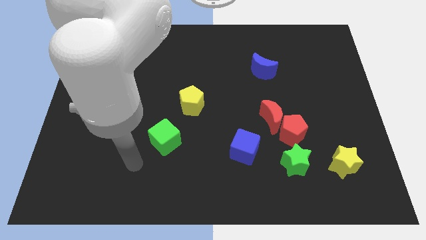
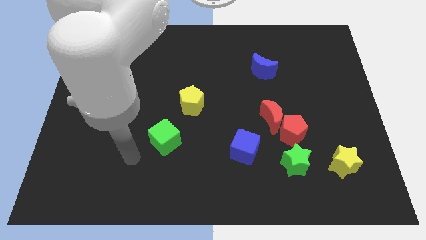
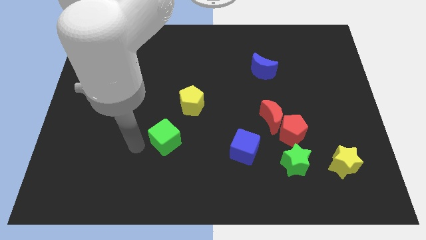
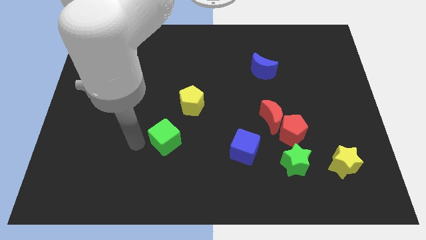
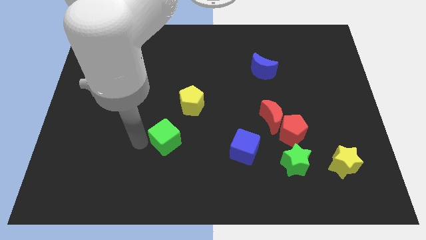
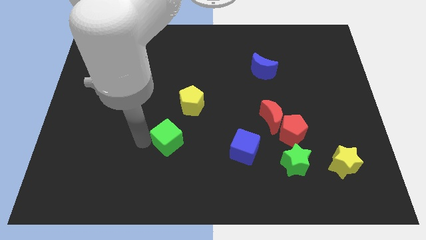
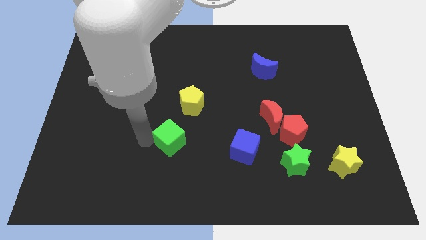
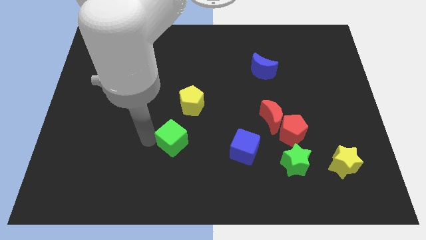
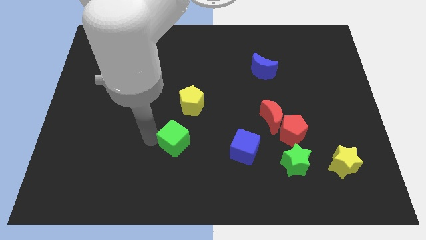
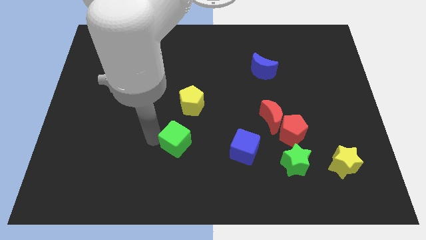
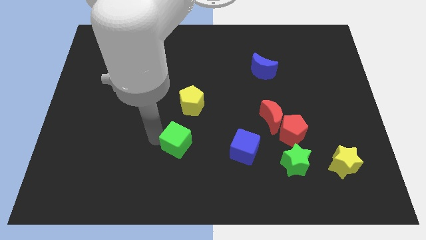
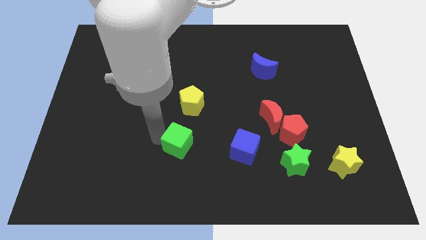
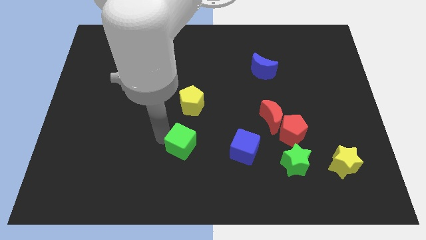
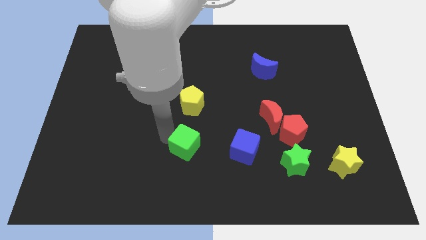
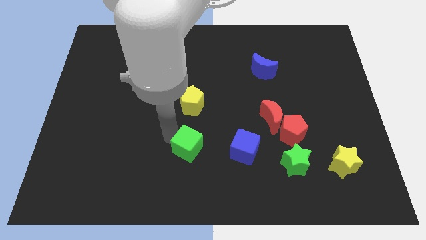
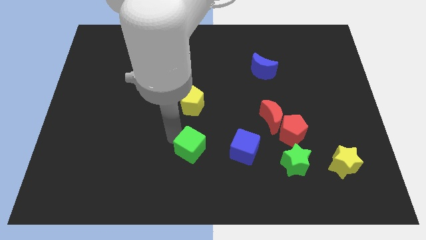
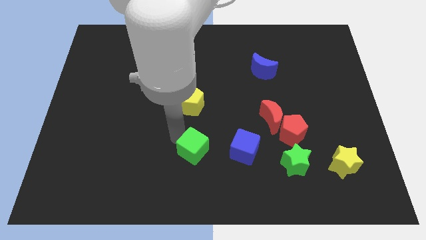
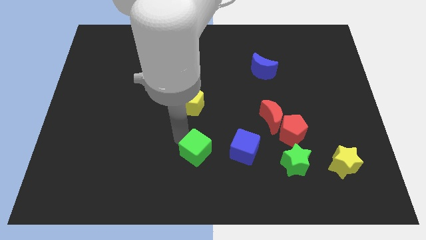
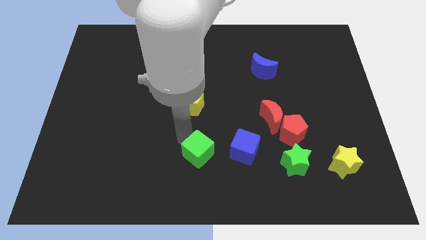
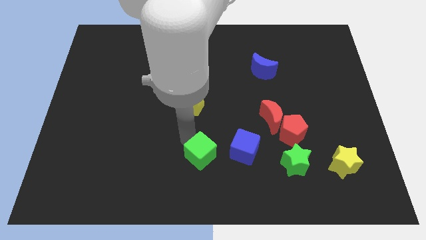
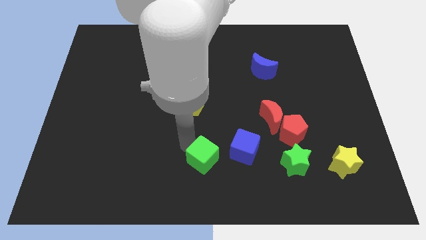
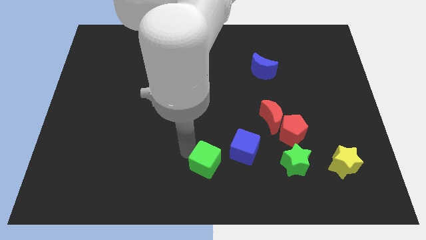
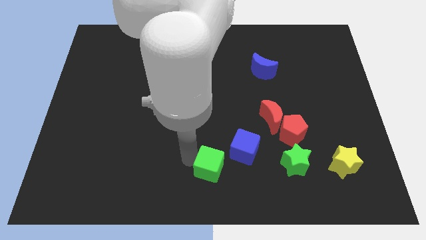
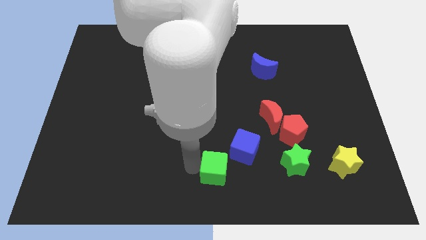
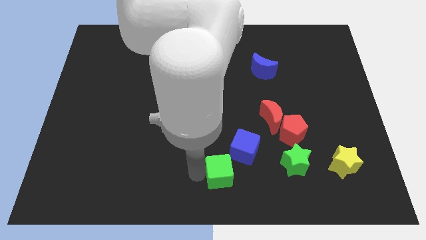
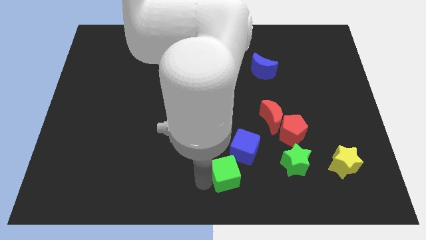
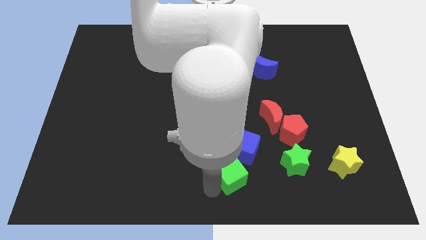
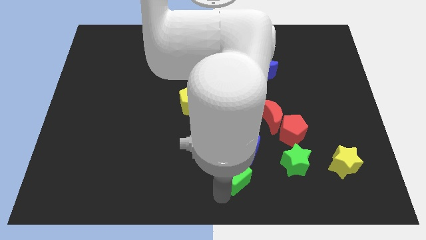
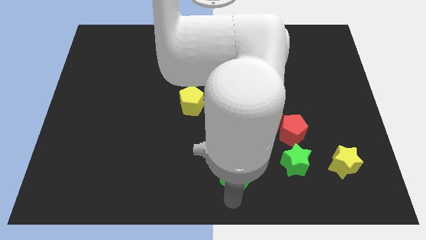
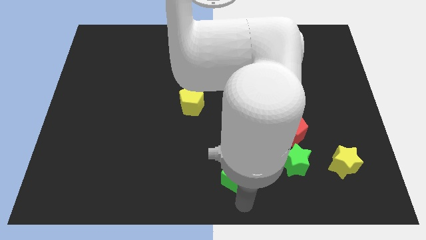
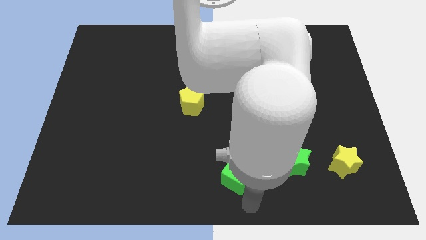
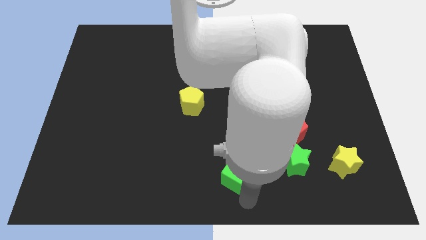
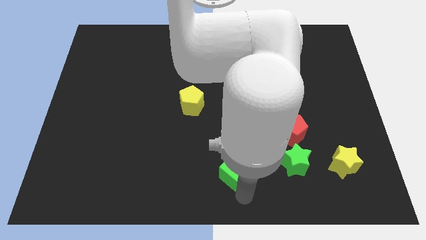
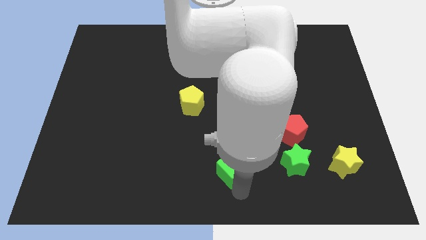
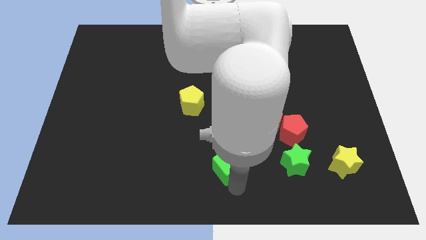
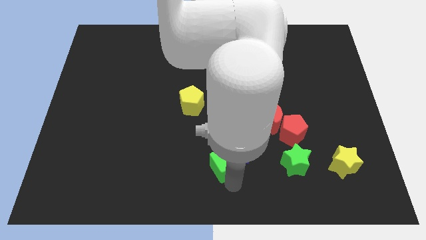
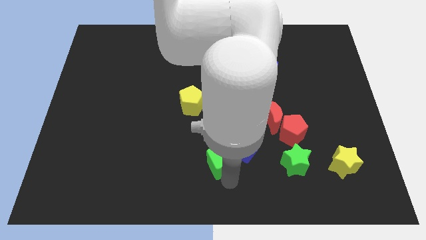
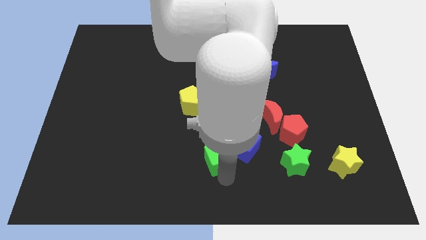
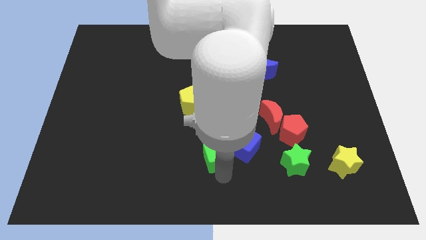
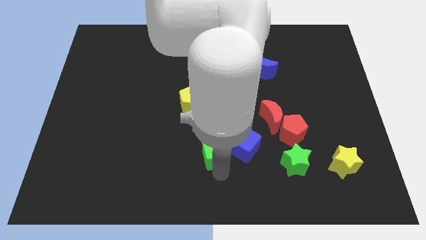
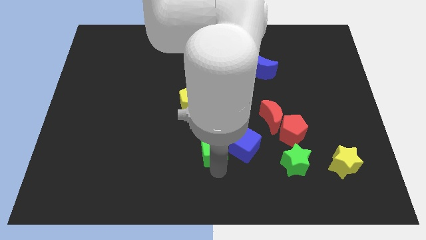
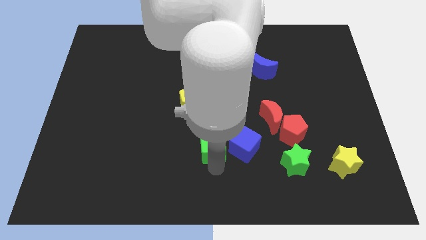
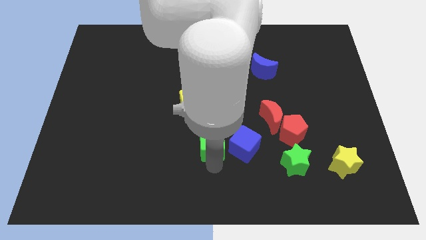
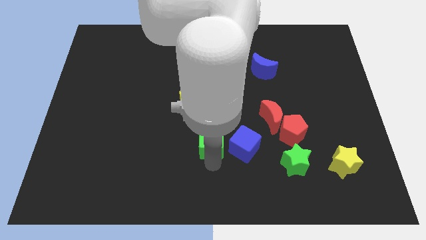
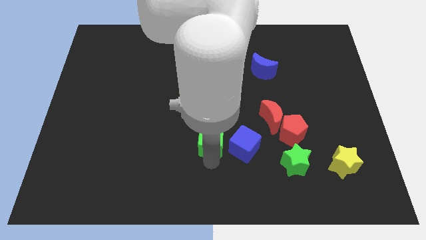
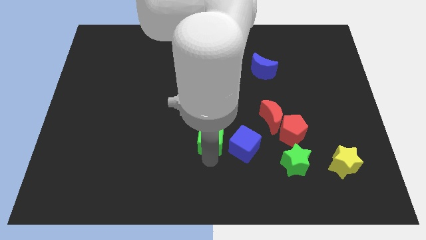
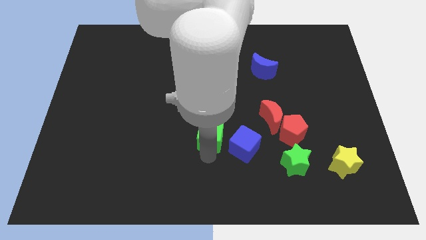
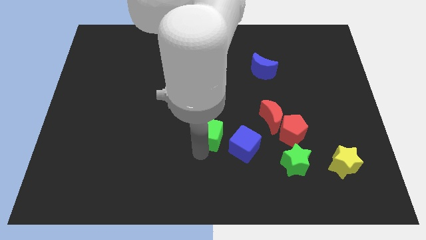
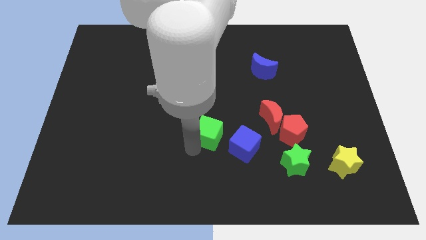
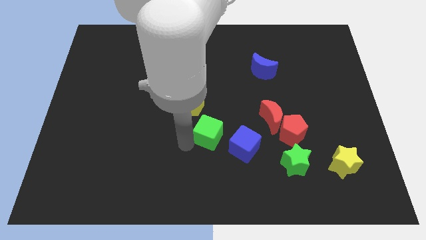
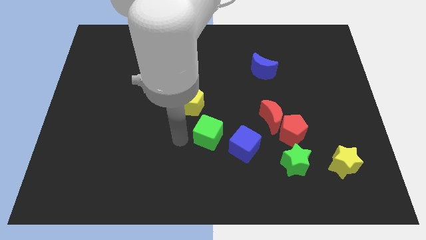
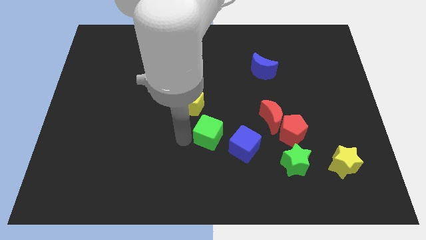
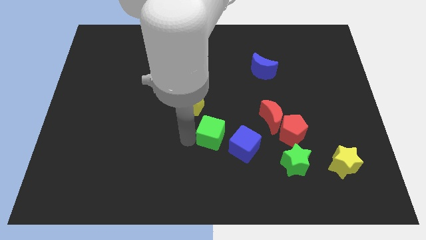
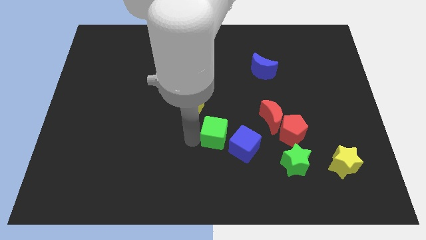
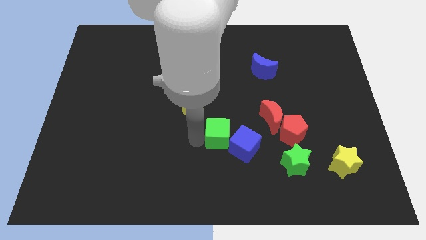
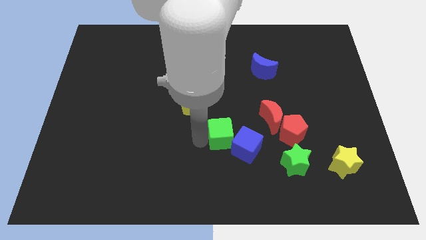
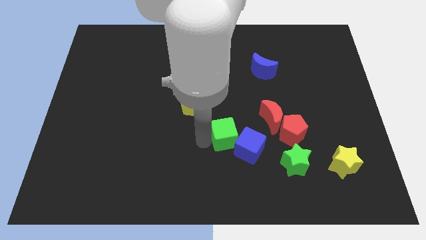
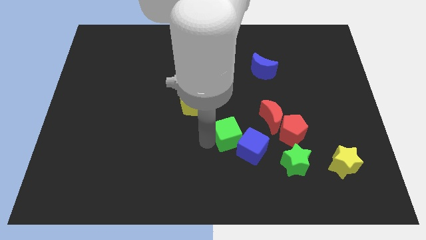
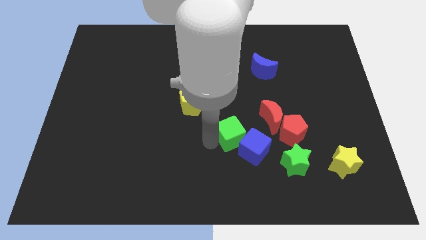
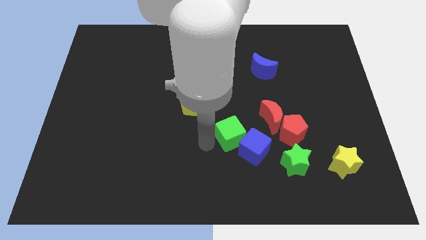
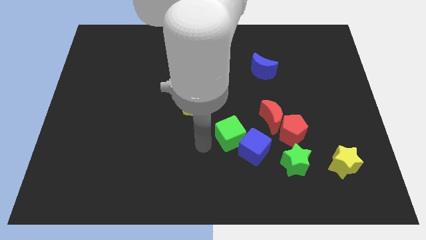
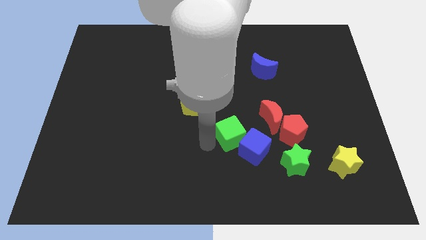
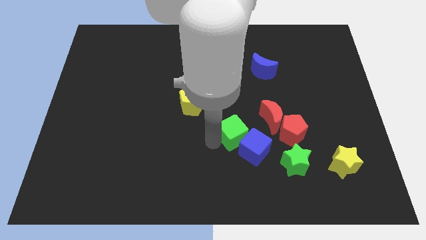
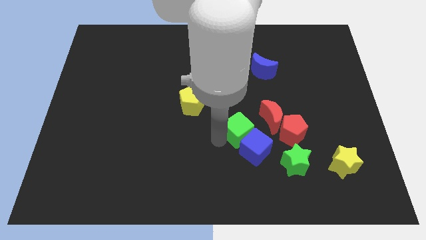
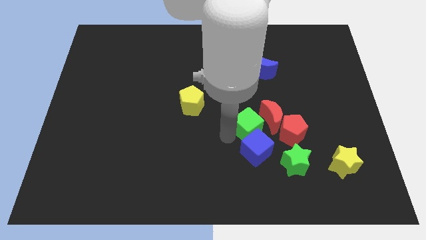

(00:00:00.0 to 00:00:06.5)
put the green cube next to the red moon

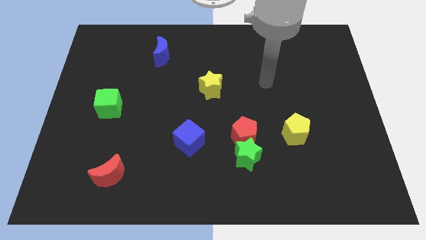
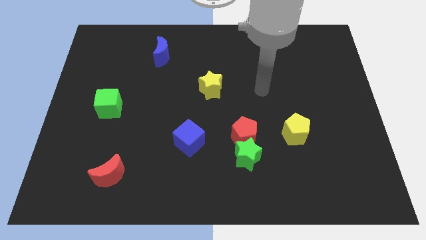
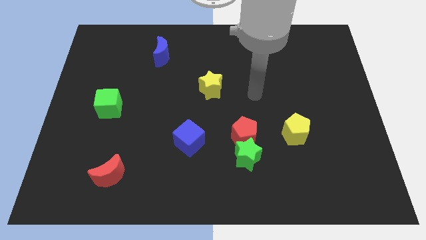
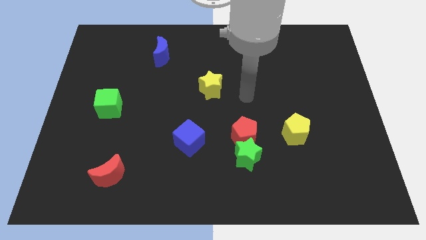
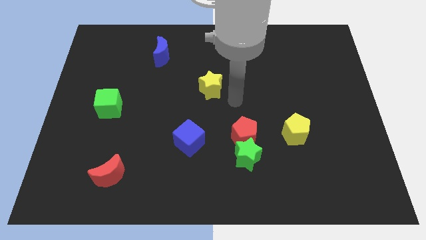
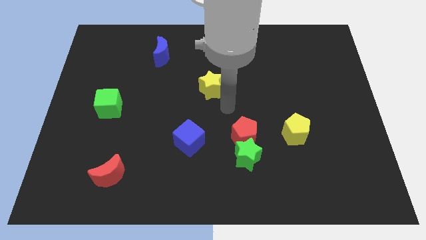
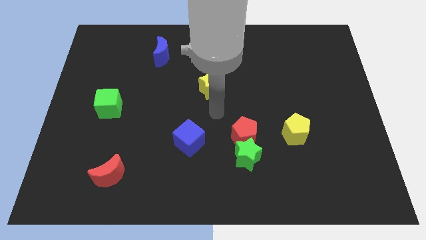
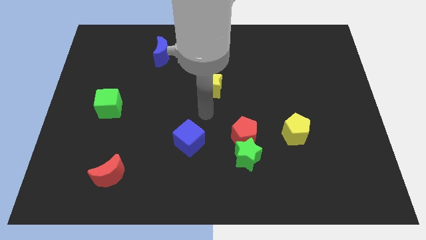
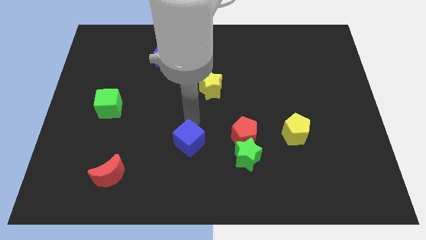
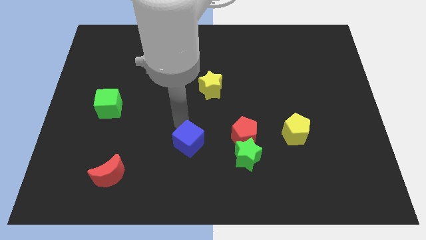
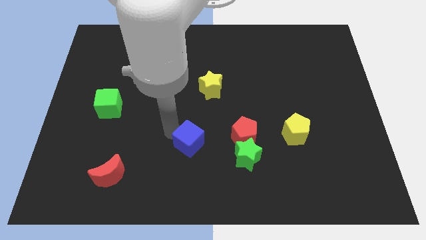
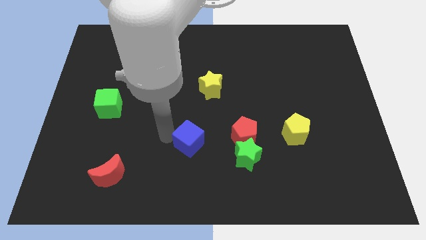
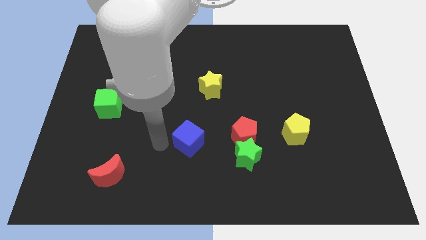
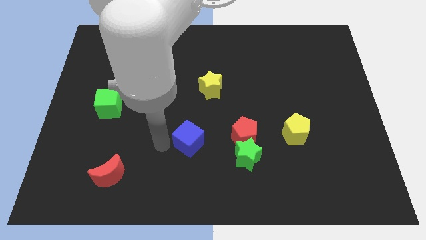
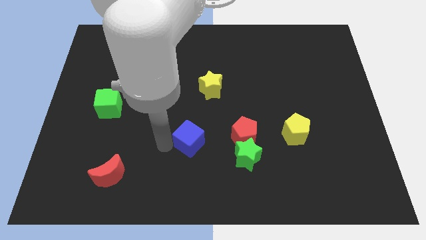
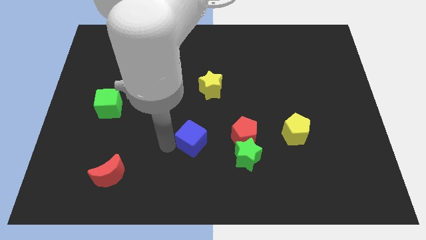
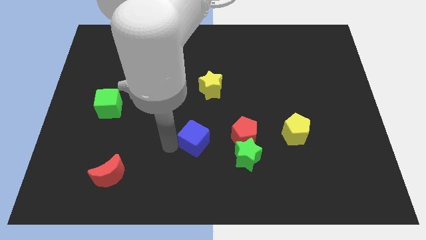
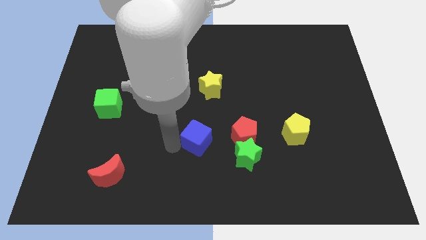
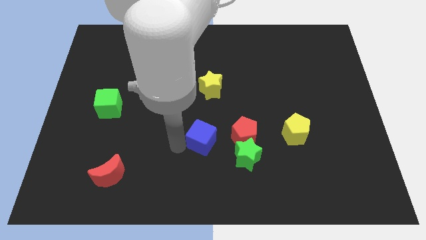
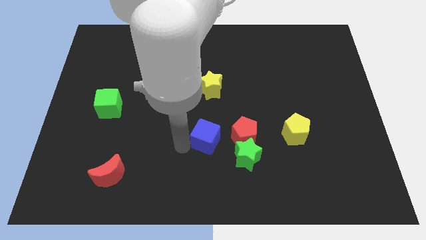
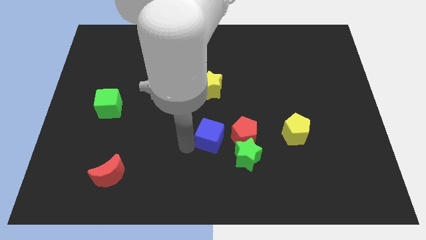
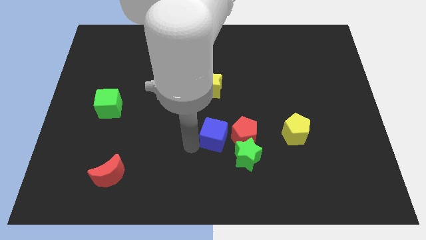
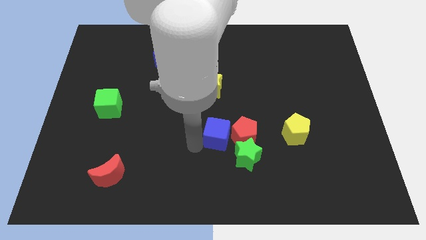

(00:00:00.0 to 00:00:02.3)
push the blue cube next to the red pentagon
